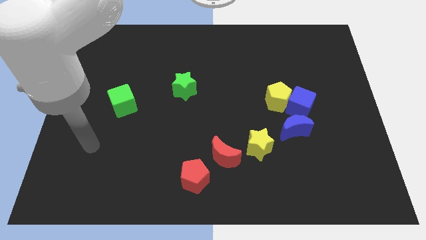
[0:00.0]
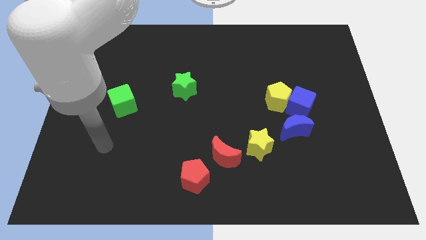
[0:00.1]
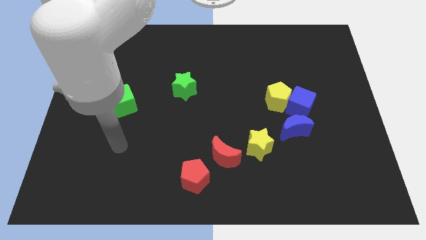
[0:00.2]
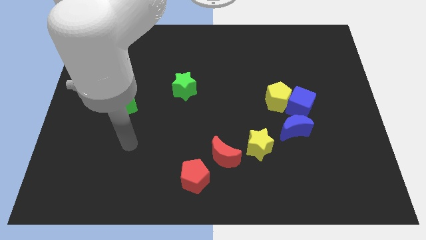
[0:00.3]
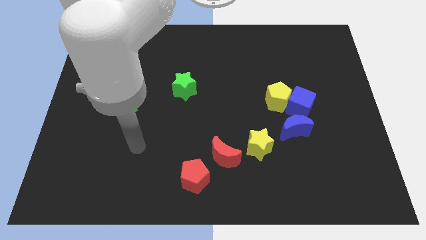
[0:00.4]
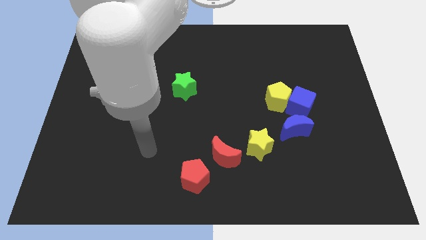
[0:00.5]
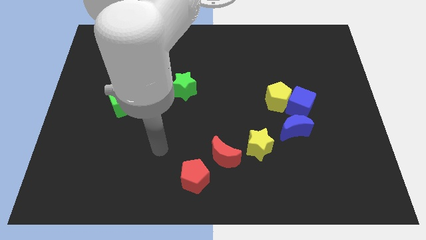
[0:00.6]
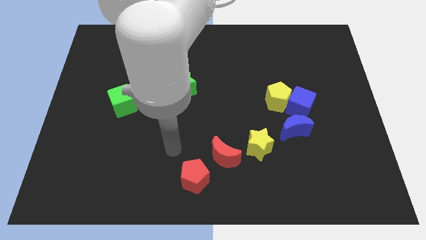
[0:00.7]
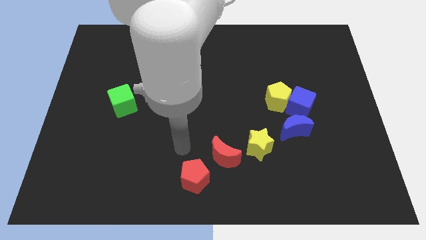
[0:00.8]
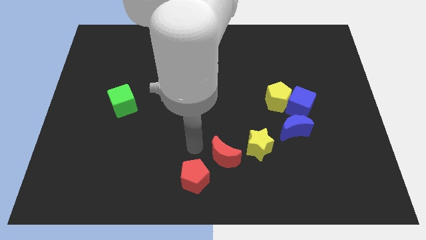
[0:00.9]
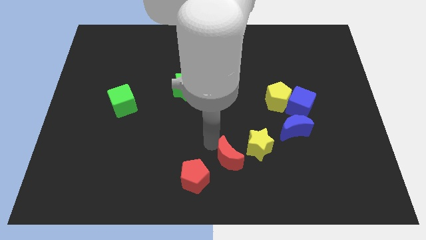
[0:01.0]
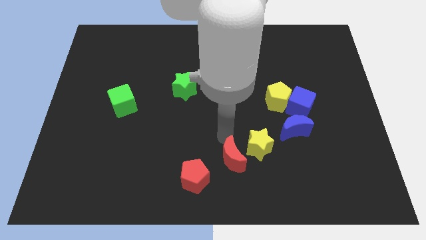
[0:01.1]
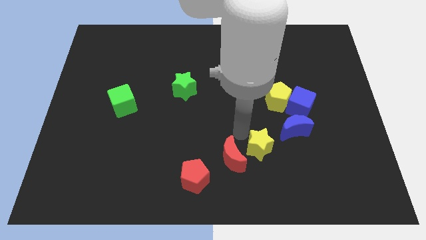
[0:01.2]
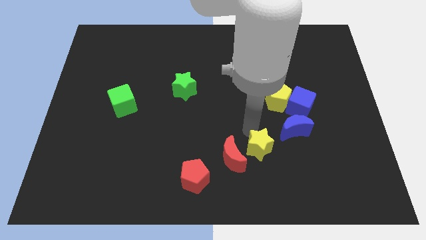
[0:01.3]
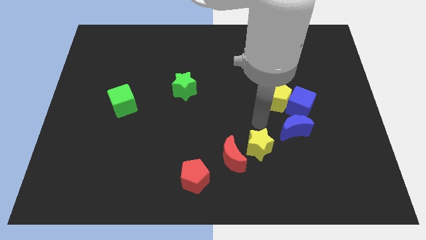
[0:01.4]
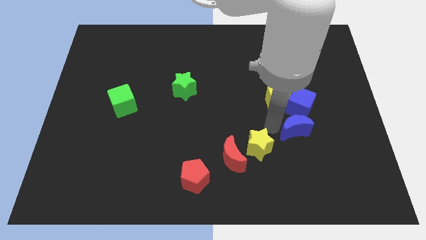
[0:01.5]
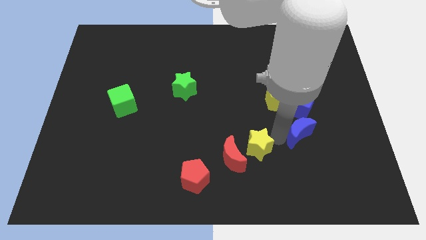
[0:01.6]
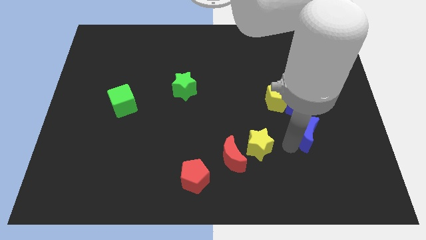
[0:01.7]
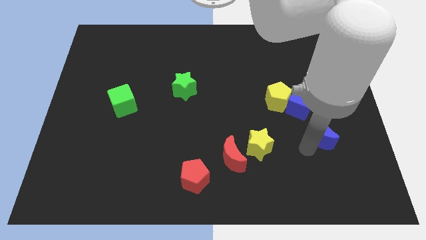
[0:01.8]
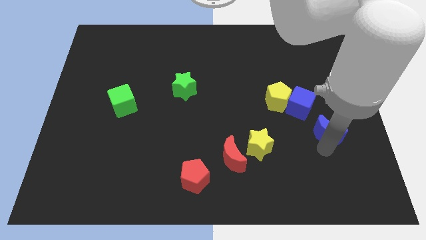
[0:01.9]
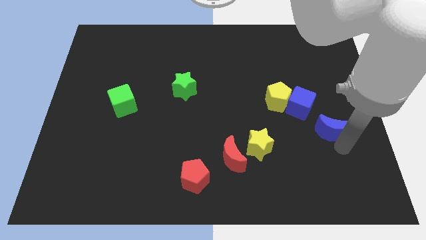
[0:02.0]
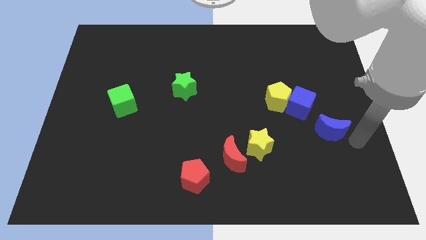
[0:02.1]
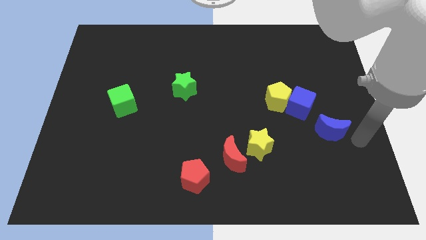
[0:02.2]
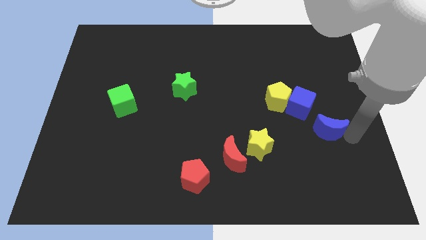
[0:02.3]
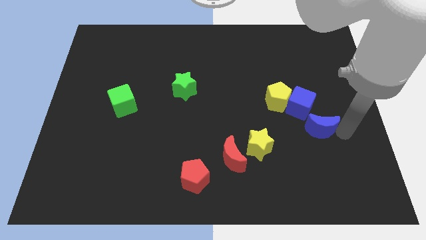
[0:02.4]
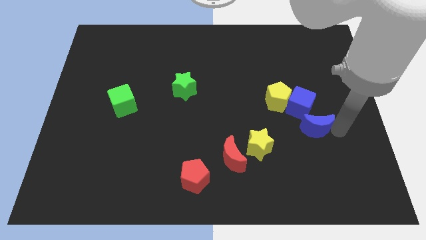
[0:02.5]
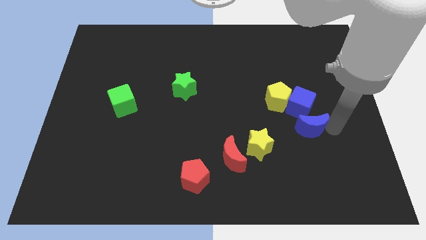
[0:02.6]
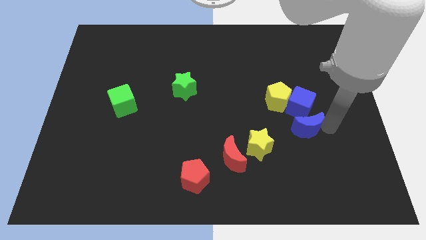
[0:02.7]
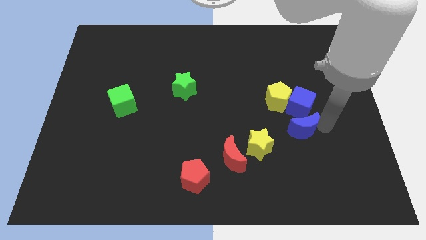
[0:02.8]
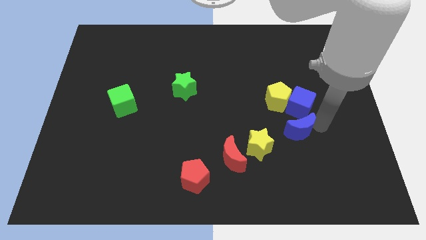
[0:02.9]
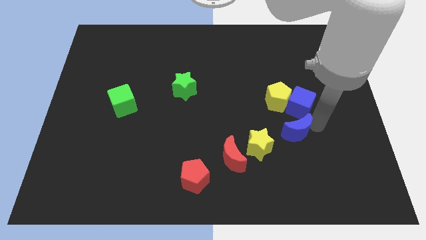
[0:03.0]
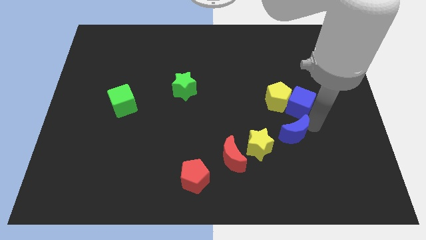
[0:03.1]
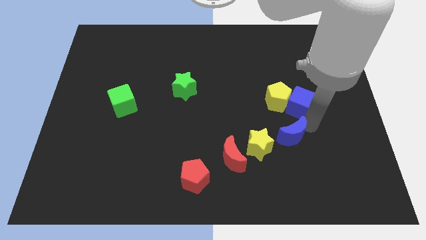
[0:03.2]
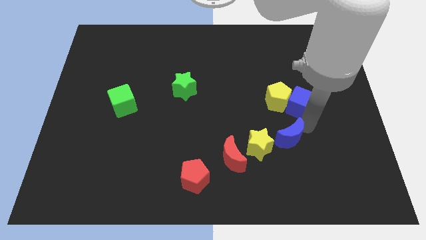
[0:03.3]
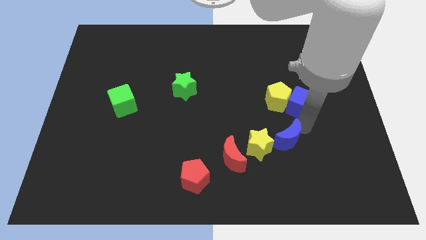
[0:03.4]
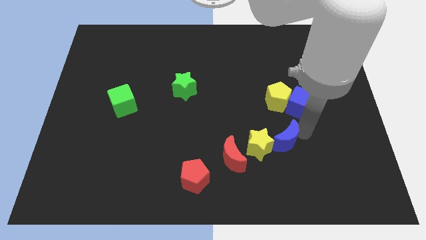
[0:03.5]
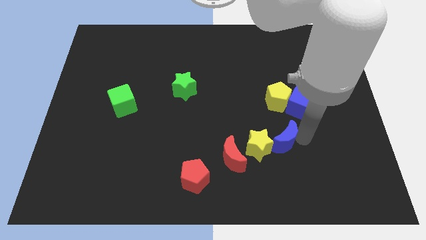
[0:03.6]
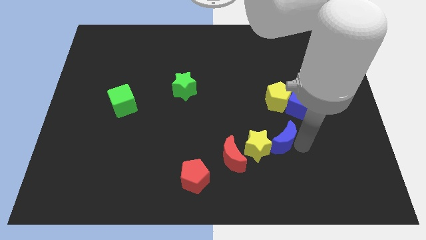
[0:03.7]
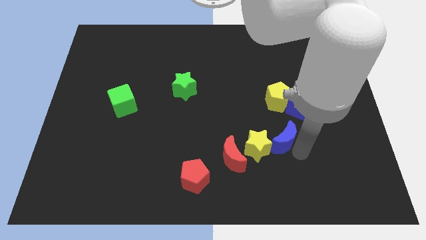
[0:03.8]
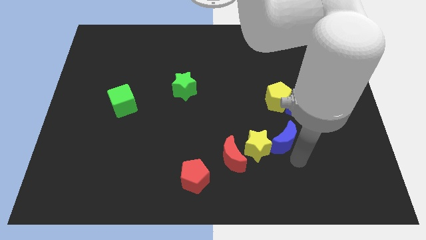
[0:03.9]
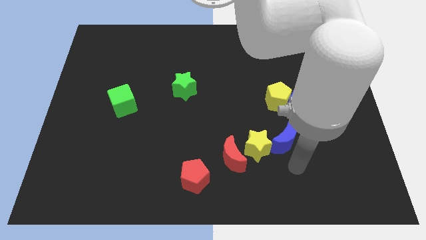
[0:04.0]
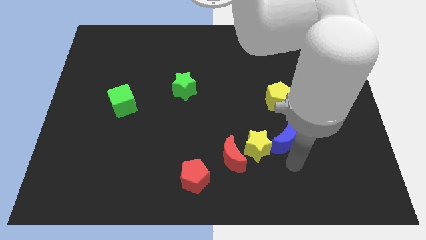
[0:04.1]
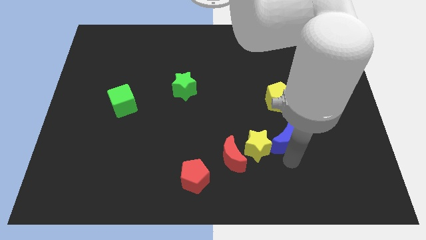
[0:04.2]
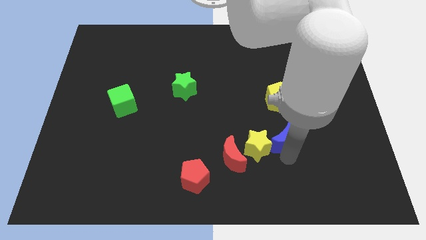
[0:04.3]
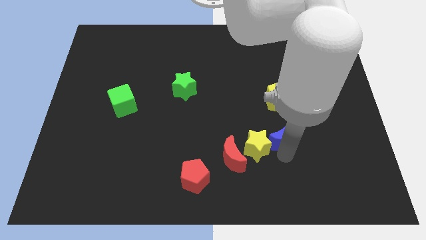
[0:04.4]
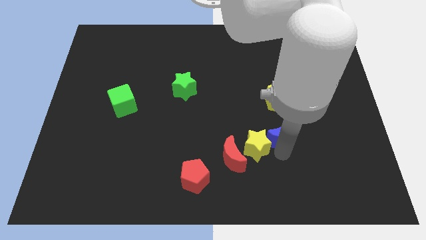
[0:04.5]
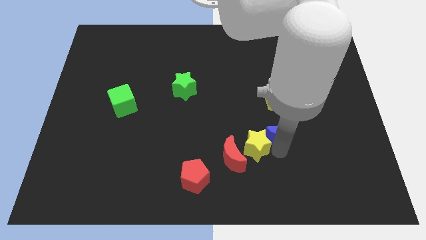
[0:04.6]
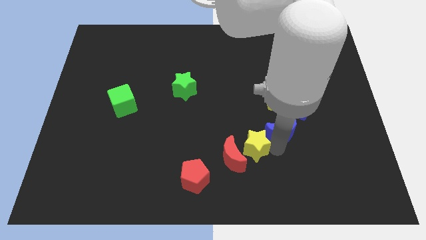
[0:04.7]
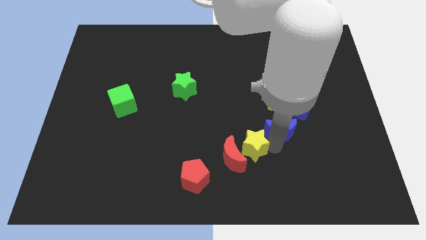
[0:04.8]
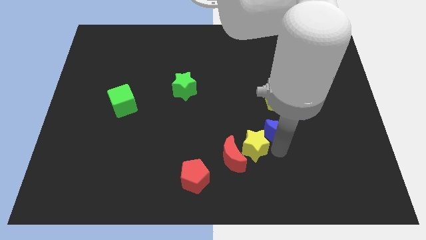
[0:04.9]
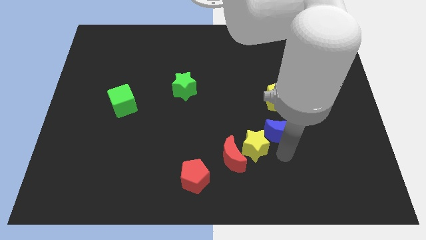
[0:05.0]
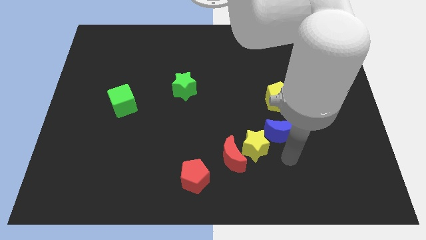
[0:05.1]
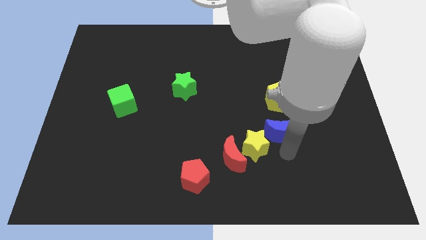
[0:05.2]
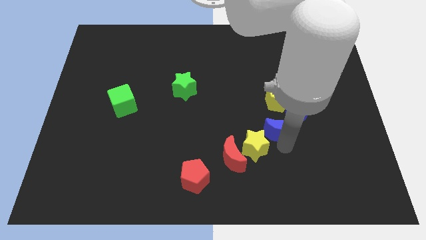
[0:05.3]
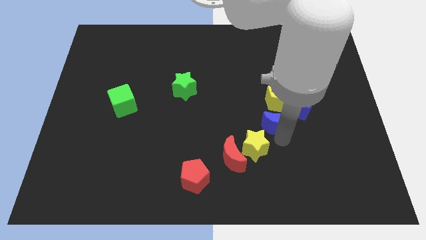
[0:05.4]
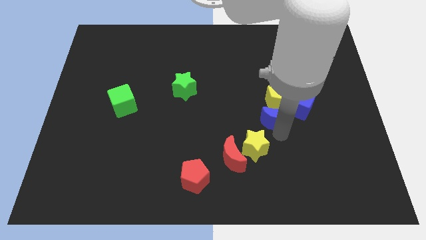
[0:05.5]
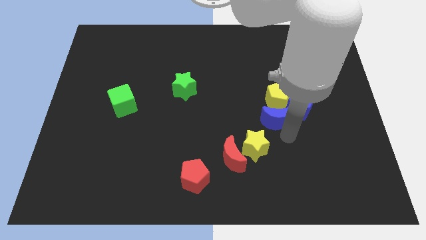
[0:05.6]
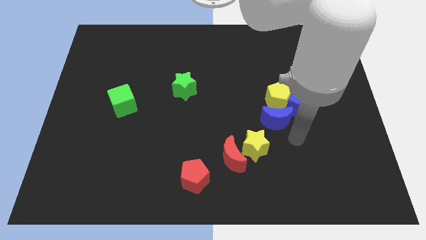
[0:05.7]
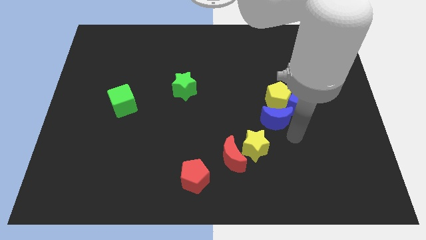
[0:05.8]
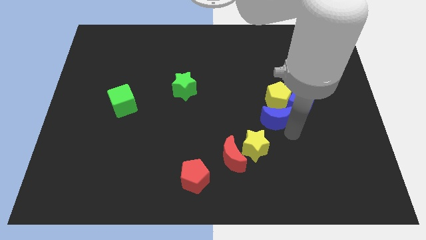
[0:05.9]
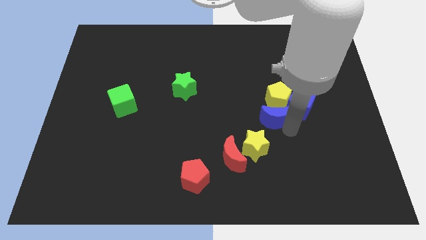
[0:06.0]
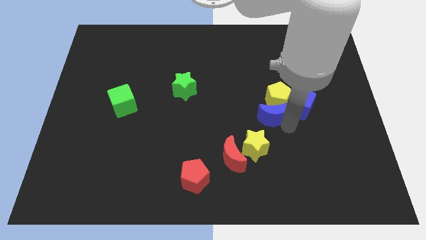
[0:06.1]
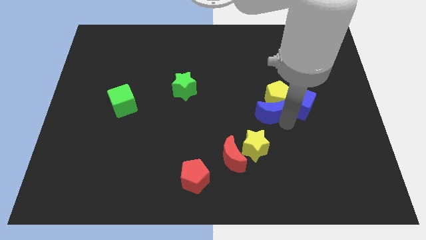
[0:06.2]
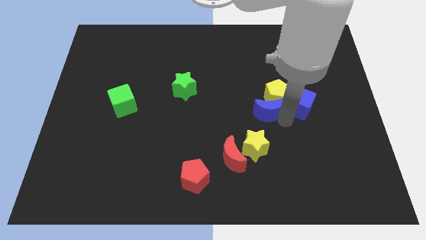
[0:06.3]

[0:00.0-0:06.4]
slide the blue moon upwards and then to the left a little

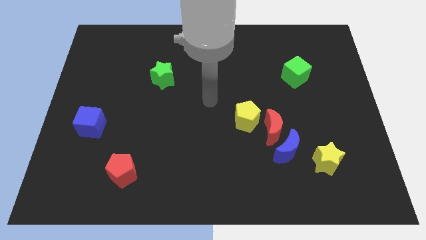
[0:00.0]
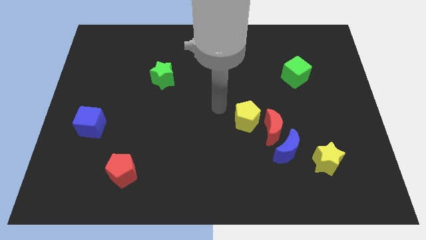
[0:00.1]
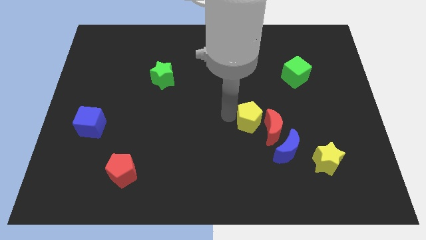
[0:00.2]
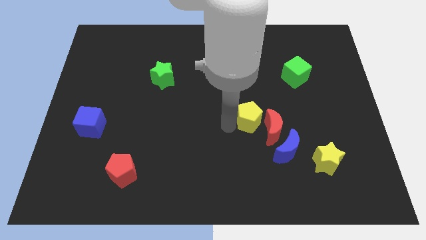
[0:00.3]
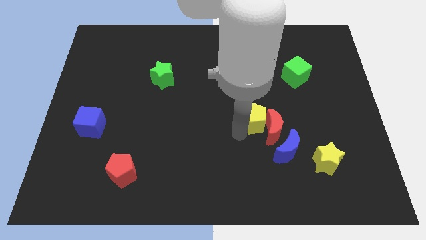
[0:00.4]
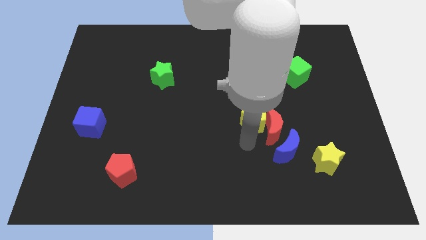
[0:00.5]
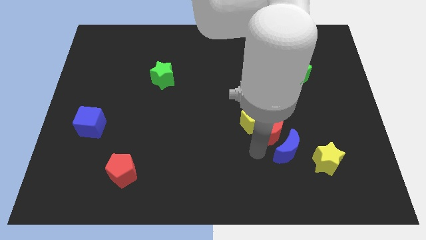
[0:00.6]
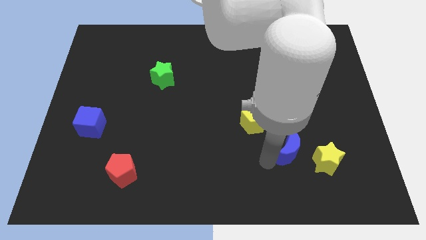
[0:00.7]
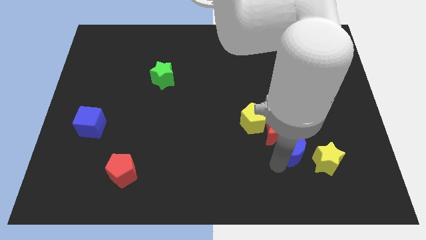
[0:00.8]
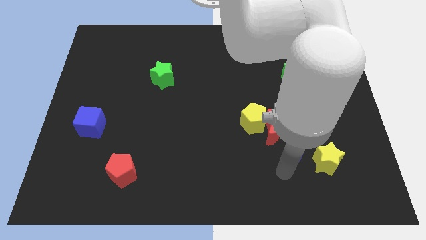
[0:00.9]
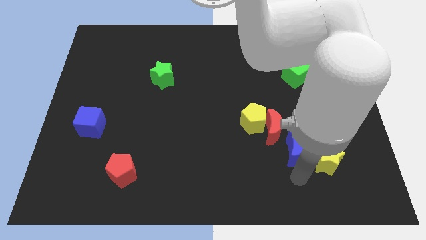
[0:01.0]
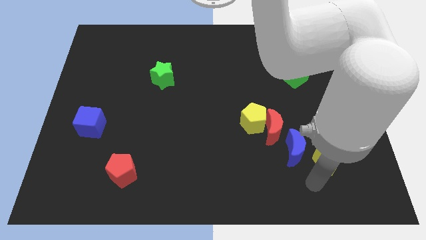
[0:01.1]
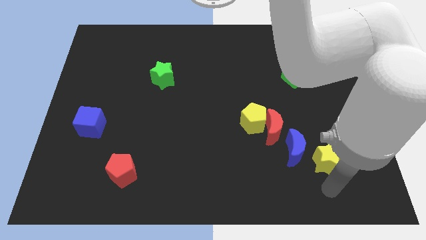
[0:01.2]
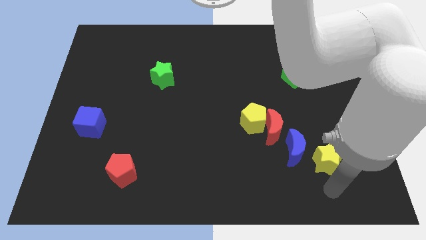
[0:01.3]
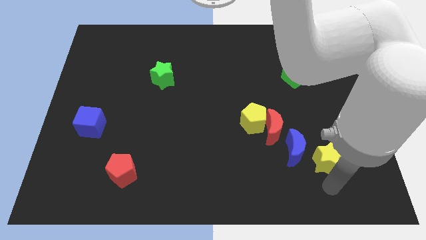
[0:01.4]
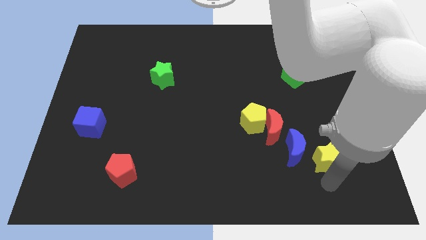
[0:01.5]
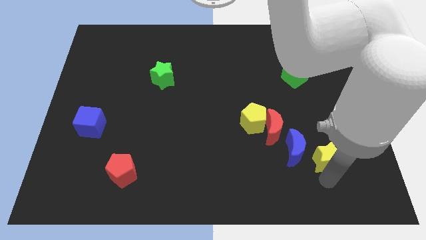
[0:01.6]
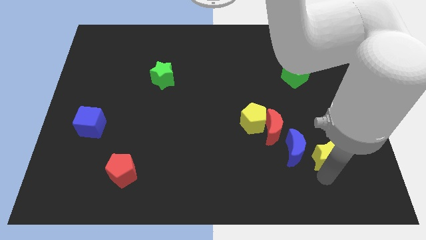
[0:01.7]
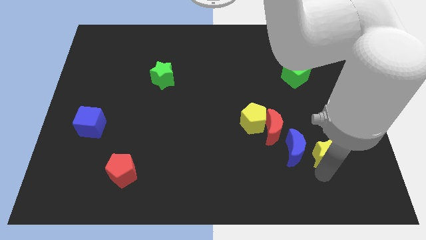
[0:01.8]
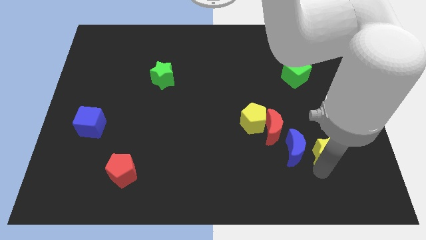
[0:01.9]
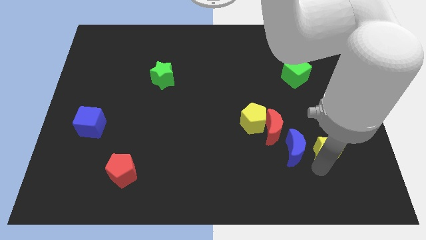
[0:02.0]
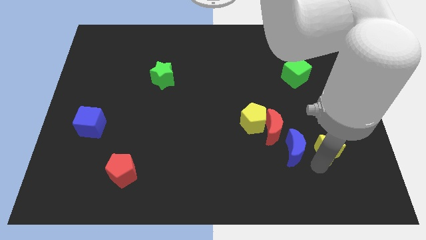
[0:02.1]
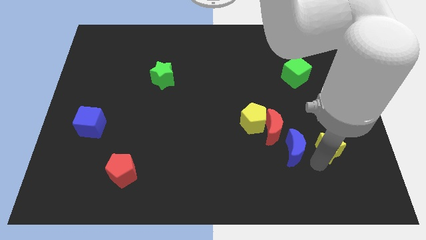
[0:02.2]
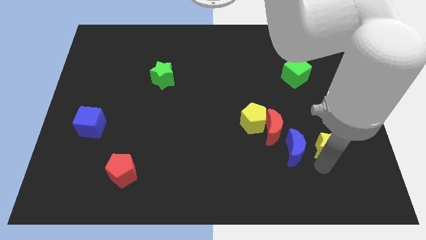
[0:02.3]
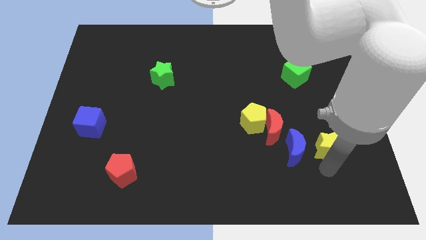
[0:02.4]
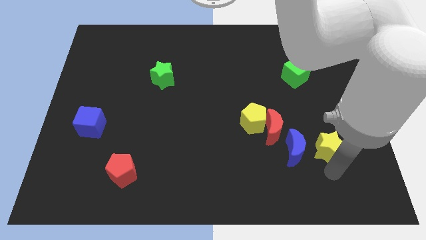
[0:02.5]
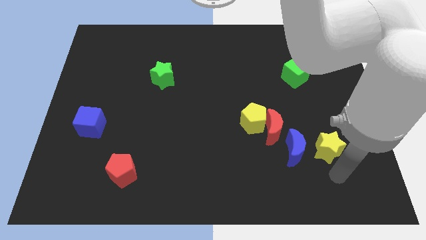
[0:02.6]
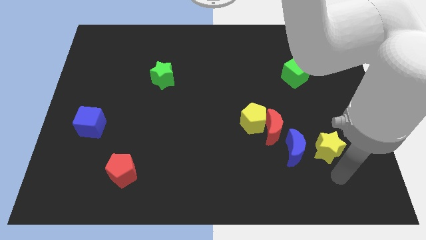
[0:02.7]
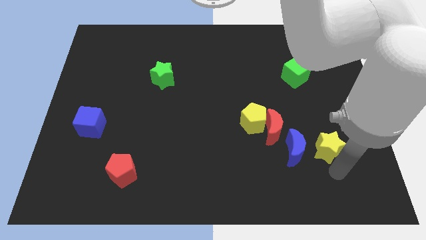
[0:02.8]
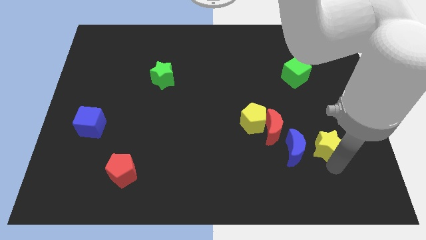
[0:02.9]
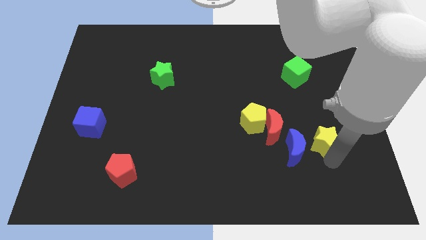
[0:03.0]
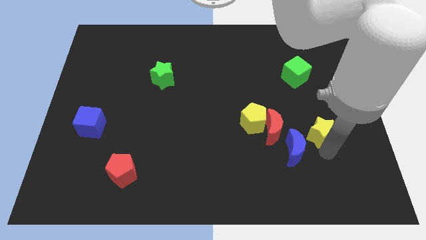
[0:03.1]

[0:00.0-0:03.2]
slightly move the yellow star up
